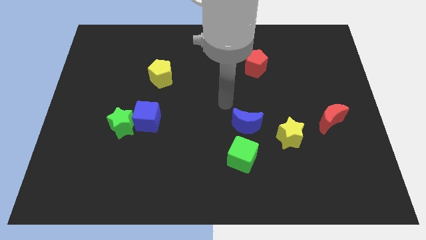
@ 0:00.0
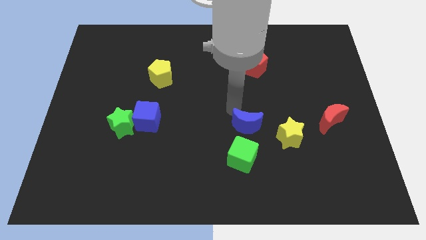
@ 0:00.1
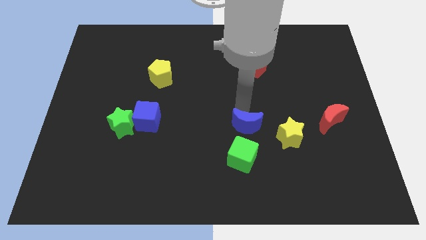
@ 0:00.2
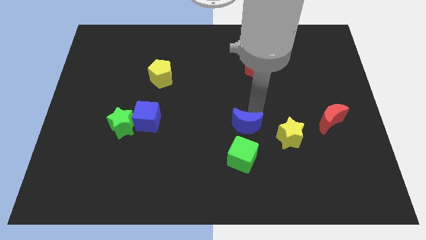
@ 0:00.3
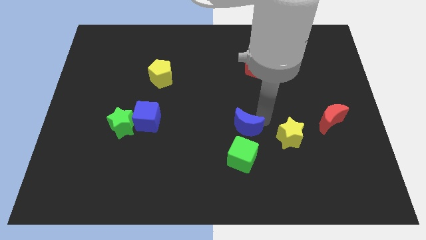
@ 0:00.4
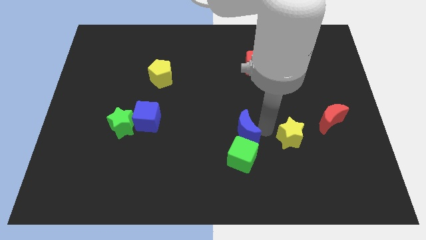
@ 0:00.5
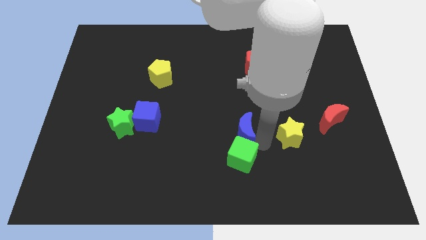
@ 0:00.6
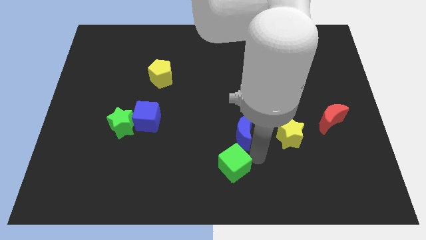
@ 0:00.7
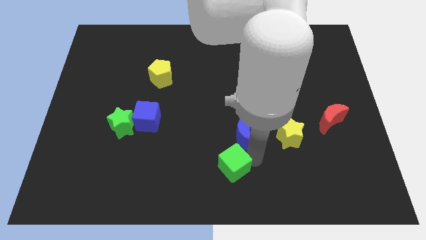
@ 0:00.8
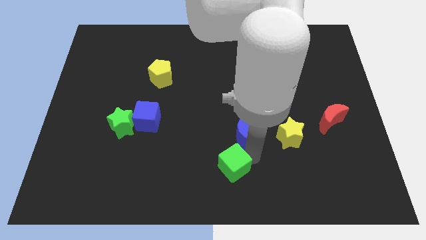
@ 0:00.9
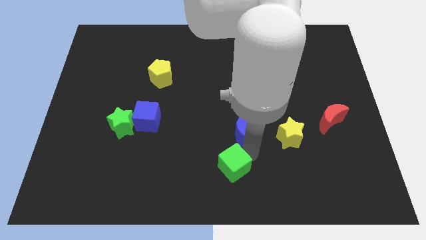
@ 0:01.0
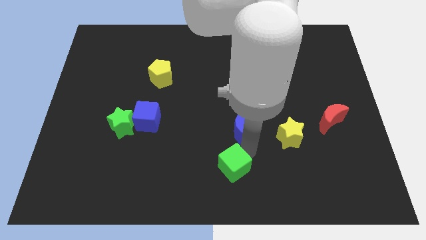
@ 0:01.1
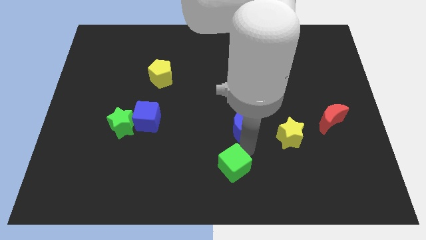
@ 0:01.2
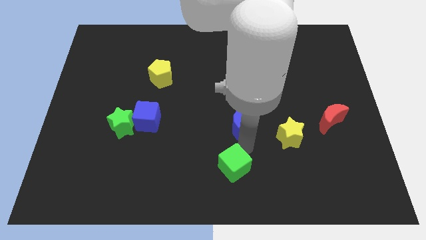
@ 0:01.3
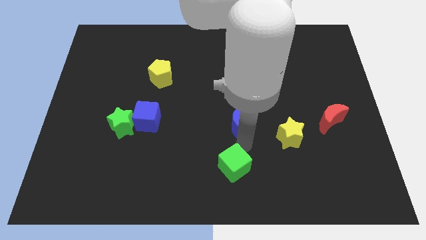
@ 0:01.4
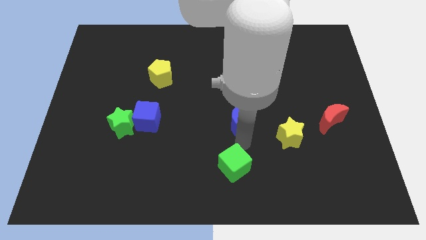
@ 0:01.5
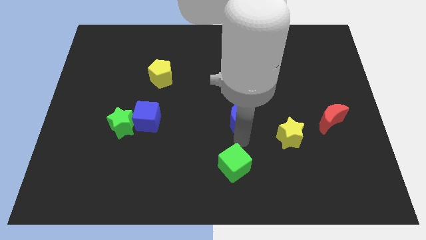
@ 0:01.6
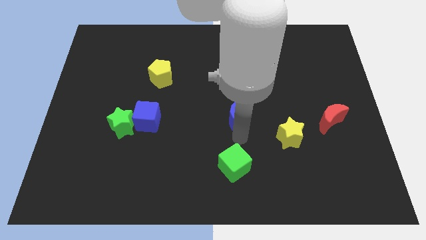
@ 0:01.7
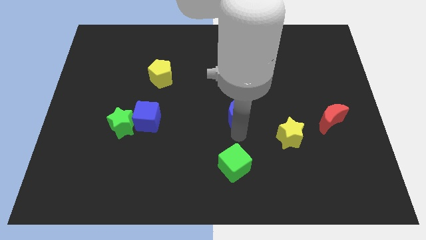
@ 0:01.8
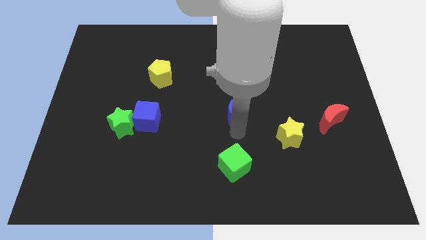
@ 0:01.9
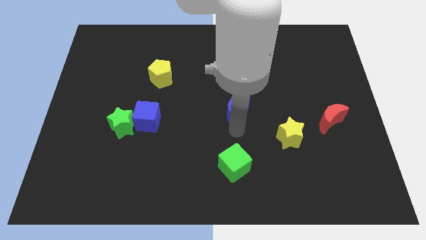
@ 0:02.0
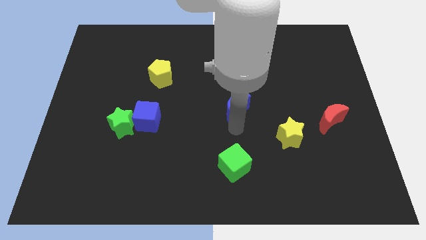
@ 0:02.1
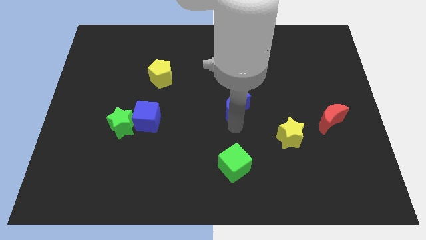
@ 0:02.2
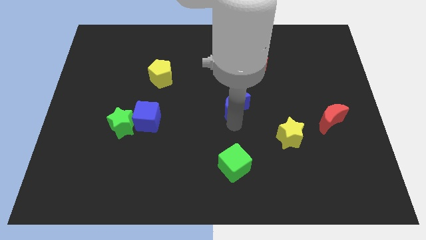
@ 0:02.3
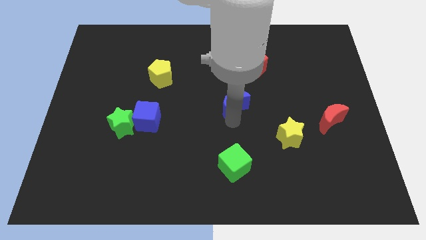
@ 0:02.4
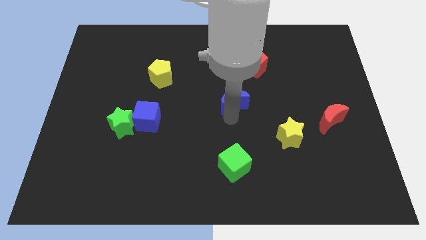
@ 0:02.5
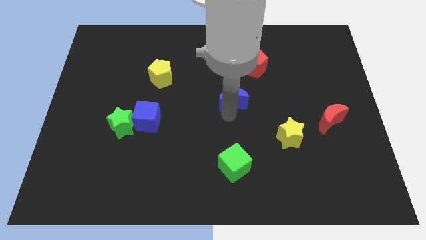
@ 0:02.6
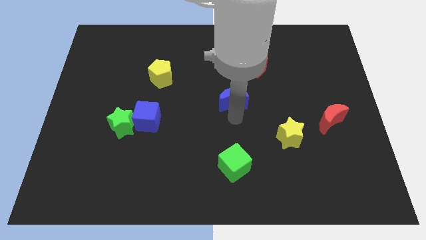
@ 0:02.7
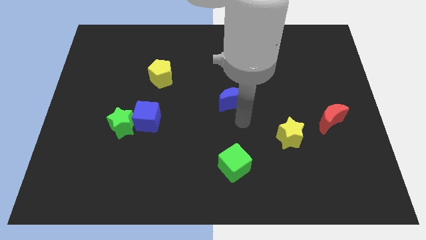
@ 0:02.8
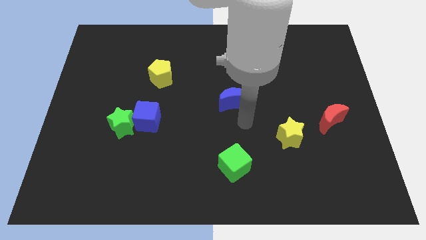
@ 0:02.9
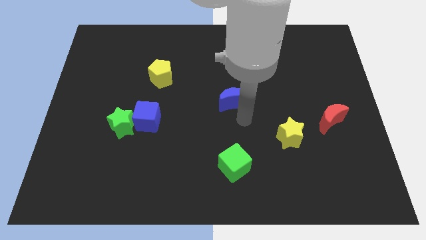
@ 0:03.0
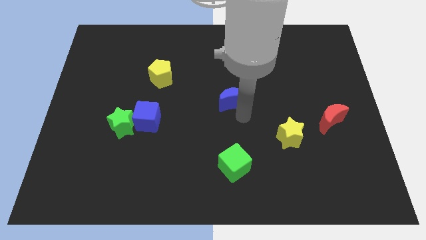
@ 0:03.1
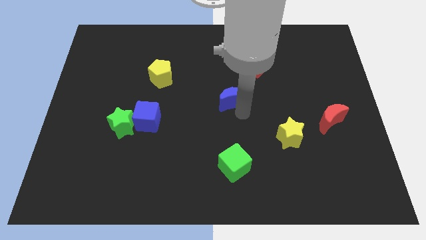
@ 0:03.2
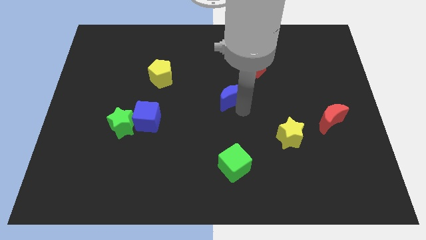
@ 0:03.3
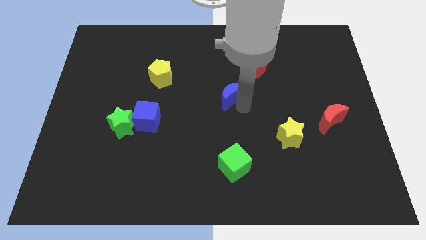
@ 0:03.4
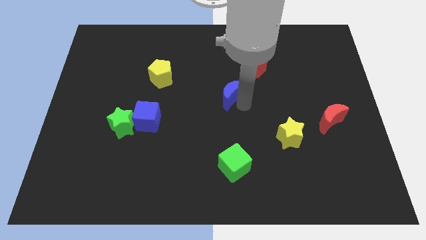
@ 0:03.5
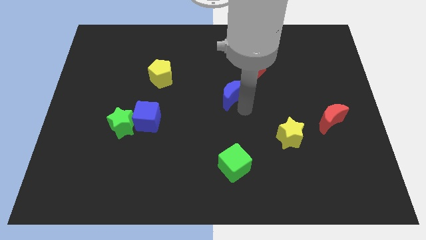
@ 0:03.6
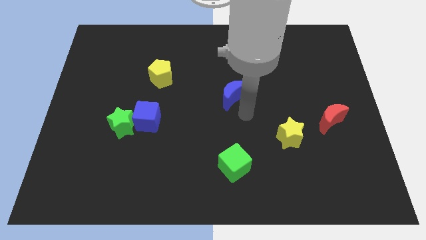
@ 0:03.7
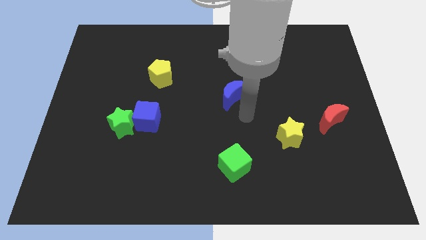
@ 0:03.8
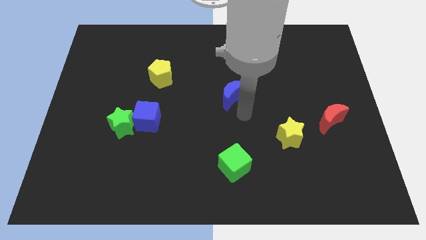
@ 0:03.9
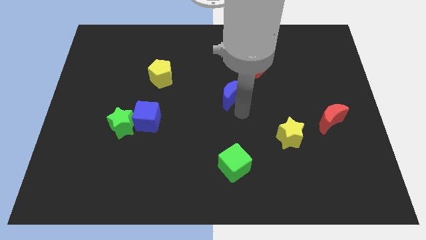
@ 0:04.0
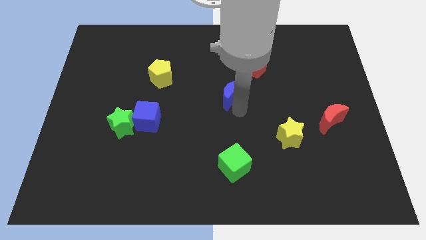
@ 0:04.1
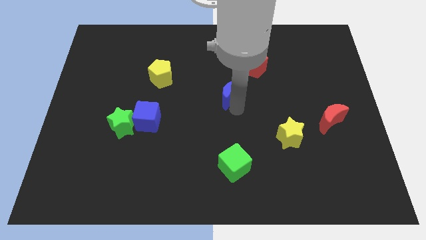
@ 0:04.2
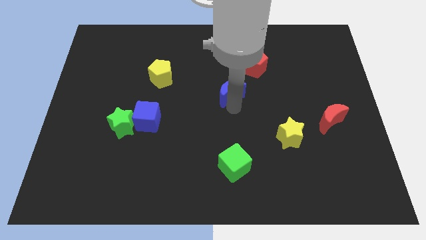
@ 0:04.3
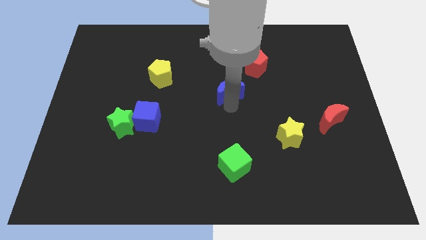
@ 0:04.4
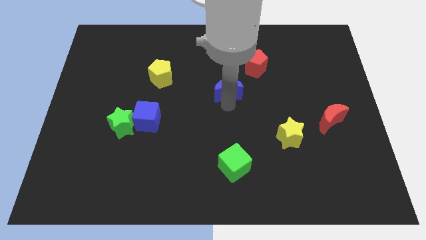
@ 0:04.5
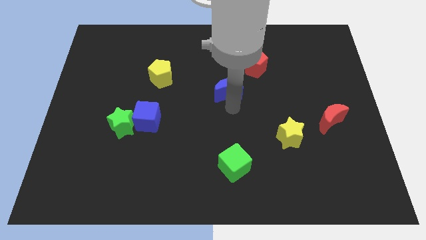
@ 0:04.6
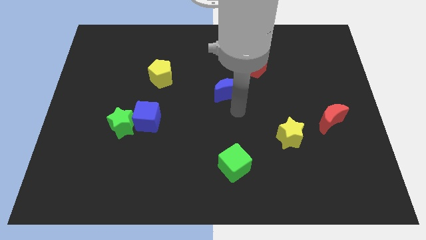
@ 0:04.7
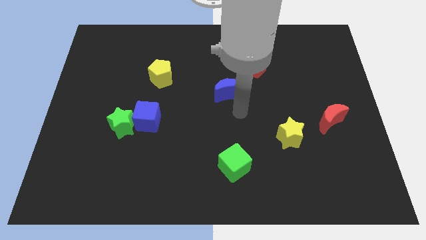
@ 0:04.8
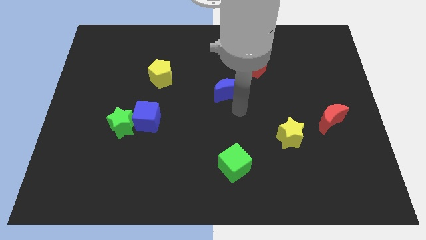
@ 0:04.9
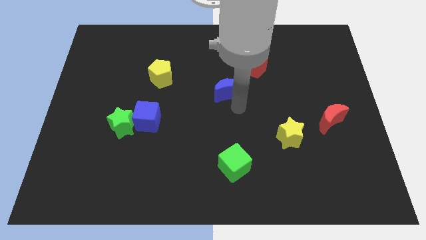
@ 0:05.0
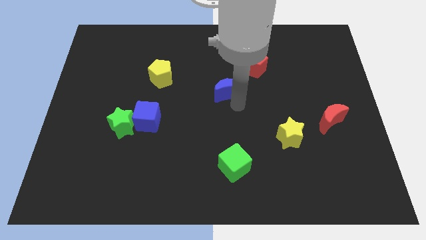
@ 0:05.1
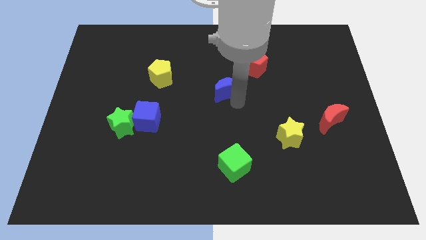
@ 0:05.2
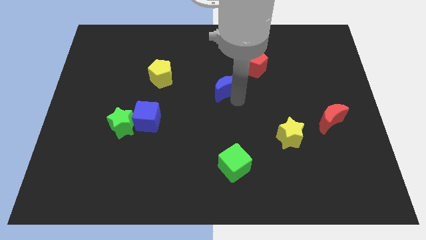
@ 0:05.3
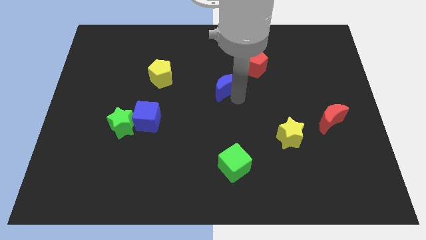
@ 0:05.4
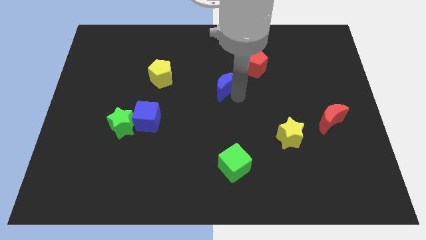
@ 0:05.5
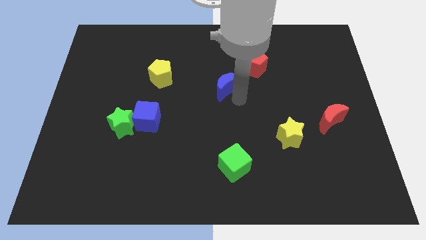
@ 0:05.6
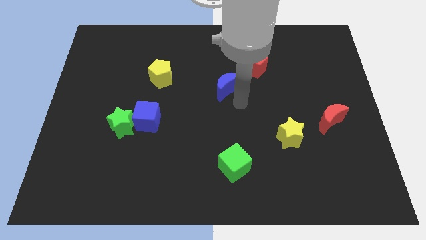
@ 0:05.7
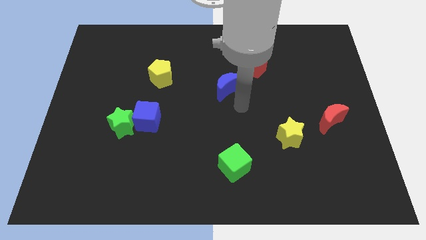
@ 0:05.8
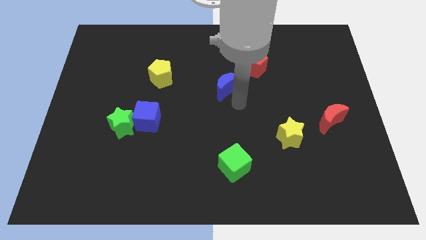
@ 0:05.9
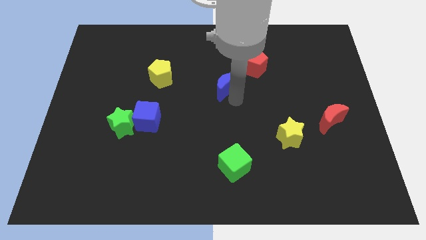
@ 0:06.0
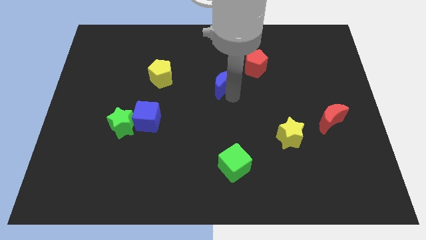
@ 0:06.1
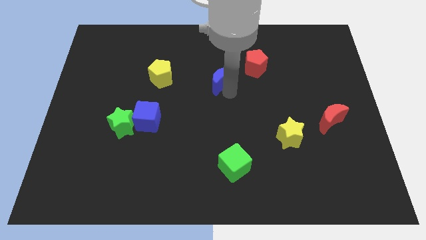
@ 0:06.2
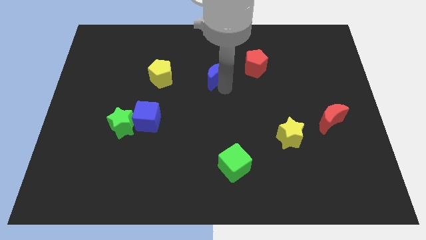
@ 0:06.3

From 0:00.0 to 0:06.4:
put the blue moon left of the red pentagon
